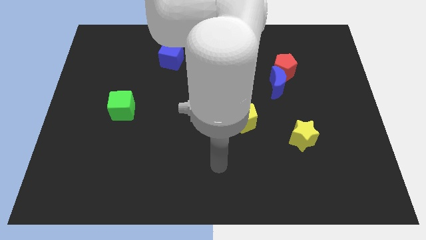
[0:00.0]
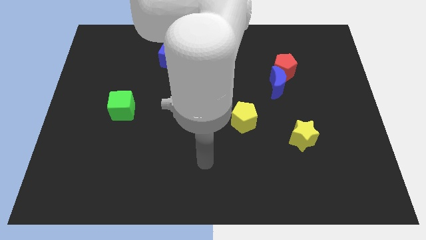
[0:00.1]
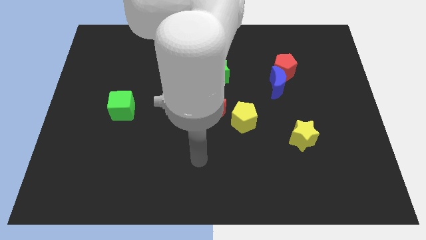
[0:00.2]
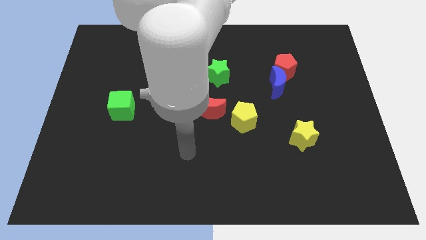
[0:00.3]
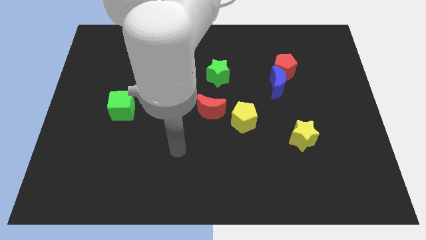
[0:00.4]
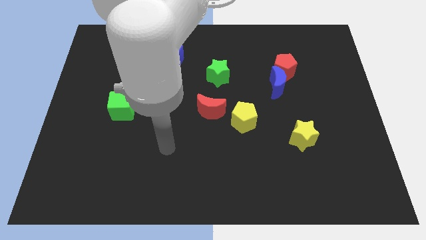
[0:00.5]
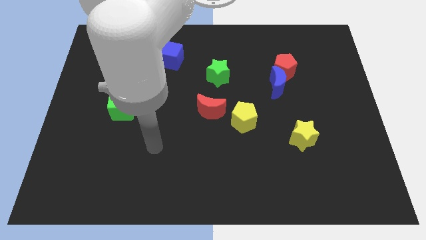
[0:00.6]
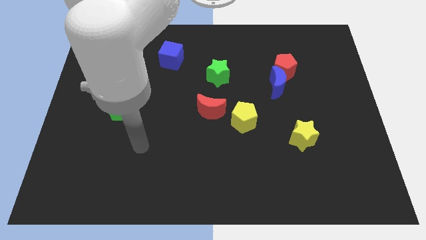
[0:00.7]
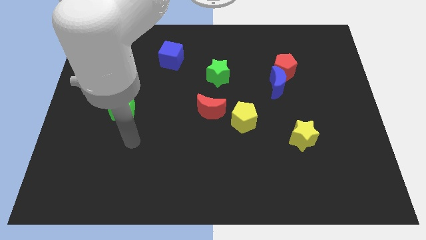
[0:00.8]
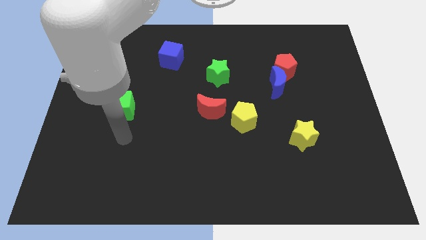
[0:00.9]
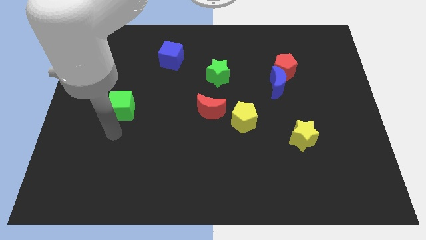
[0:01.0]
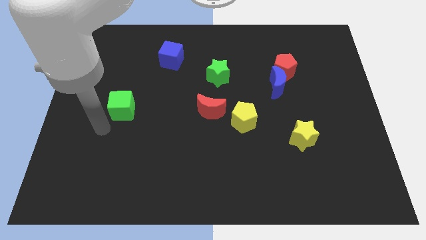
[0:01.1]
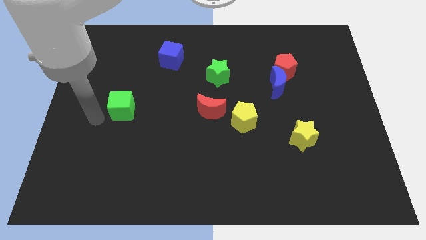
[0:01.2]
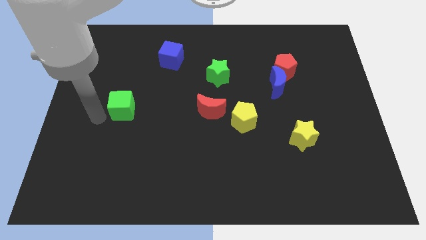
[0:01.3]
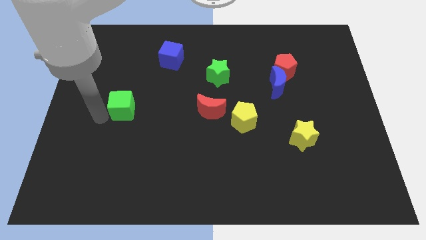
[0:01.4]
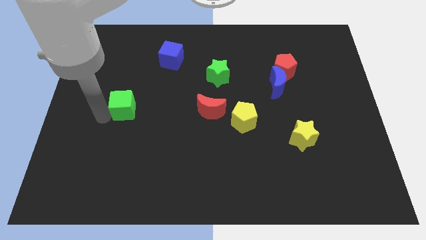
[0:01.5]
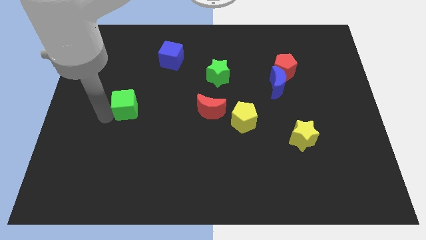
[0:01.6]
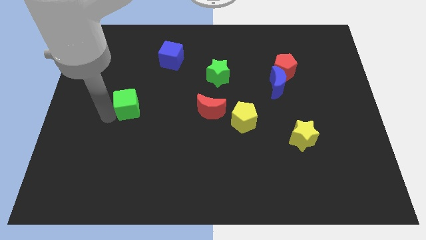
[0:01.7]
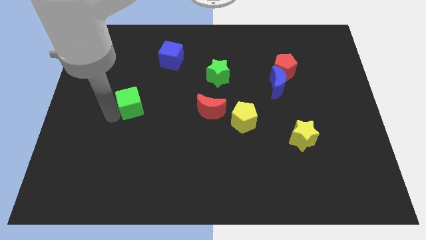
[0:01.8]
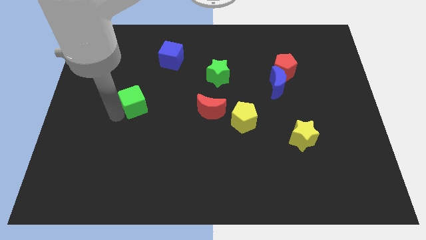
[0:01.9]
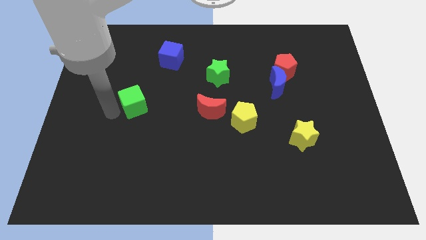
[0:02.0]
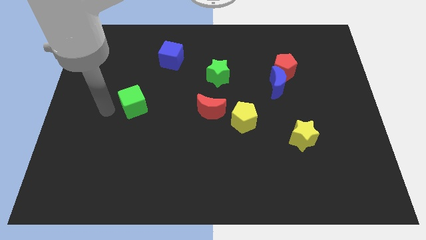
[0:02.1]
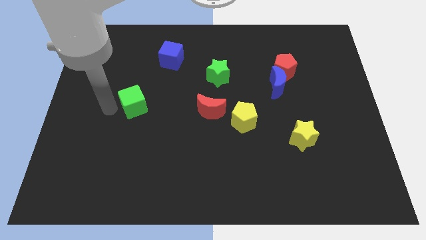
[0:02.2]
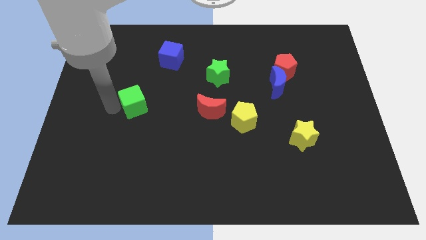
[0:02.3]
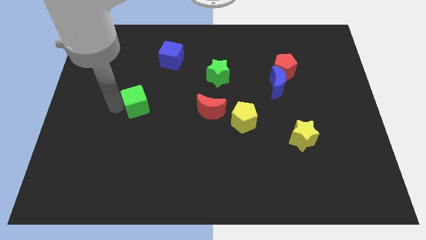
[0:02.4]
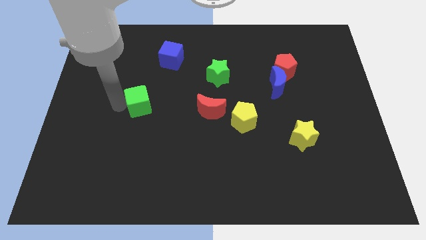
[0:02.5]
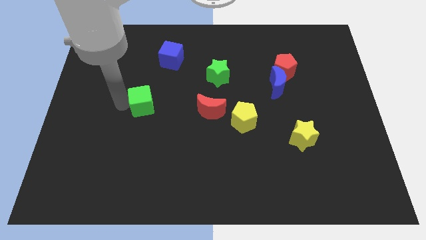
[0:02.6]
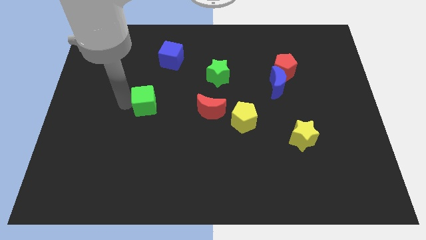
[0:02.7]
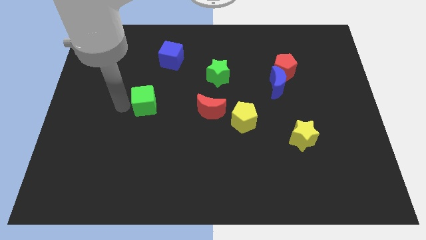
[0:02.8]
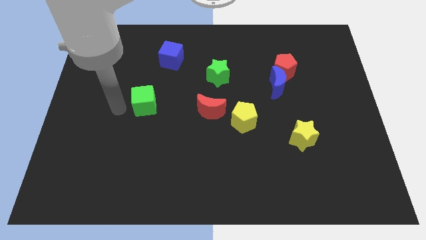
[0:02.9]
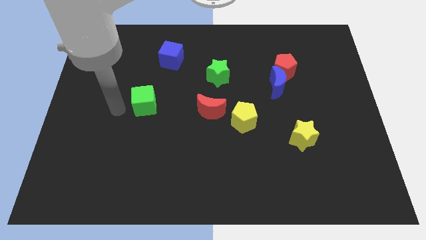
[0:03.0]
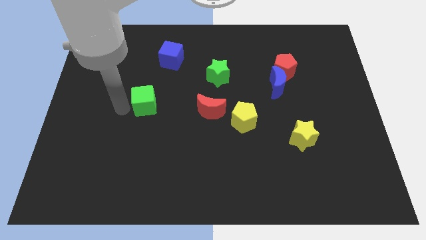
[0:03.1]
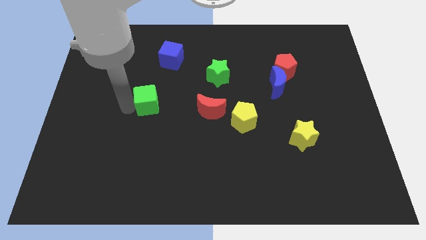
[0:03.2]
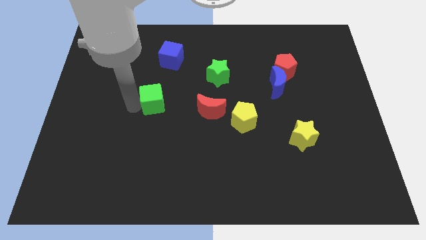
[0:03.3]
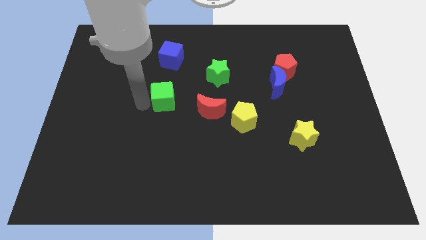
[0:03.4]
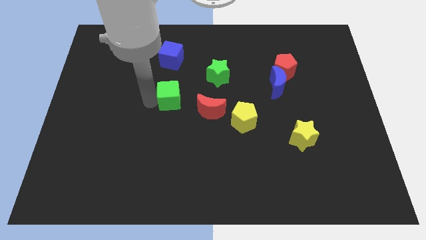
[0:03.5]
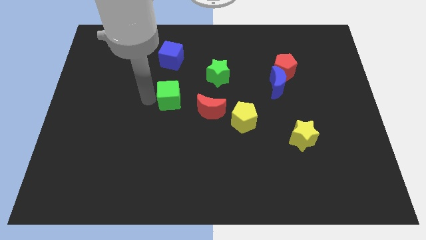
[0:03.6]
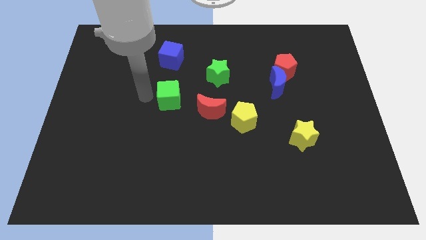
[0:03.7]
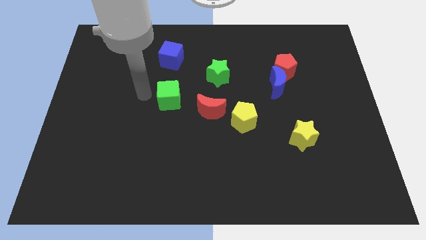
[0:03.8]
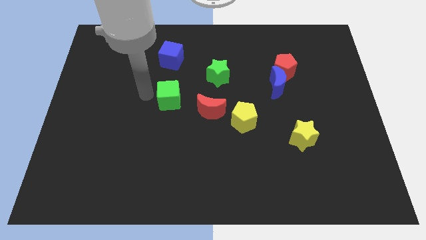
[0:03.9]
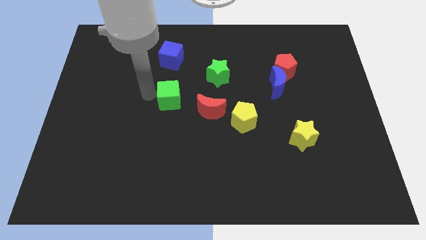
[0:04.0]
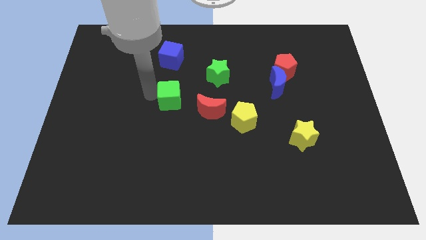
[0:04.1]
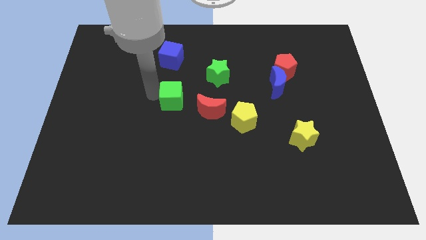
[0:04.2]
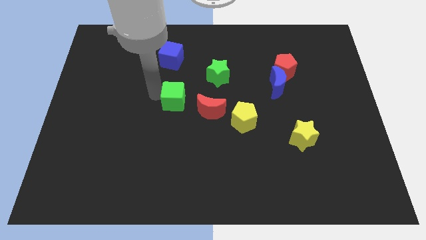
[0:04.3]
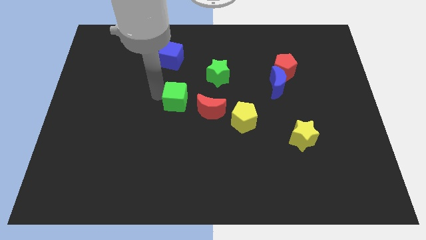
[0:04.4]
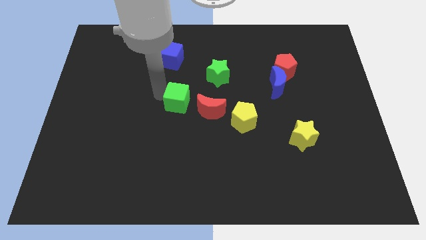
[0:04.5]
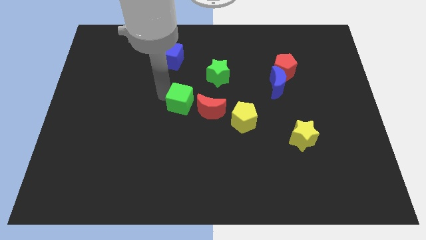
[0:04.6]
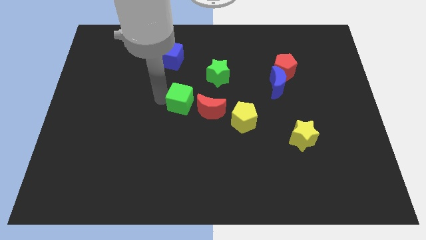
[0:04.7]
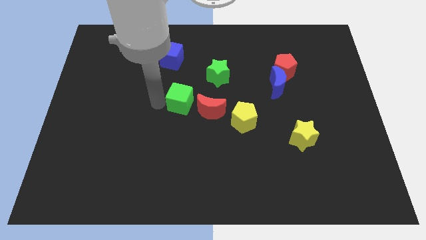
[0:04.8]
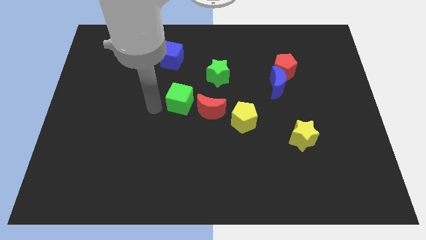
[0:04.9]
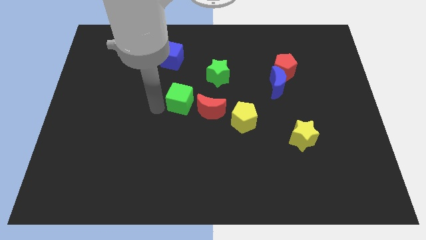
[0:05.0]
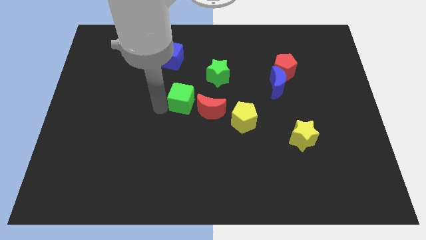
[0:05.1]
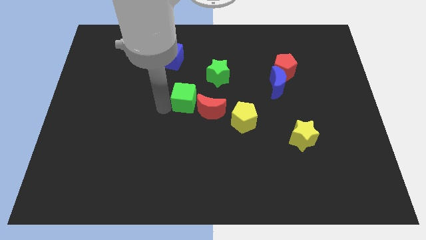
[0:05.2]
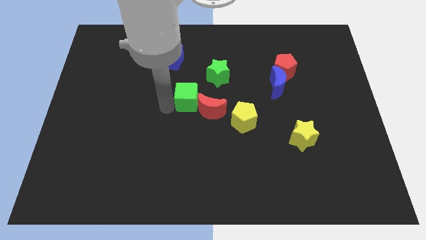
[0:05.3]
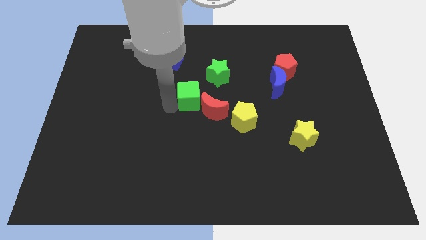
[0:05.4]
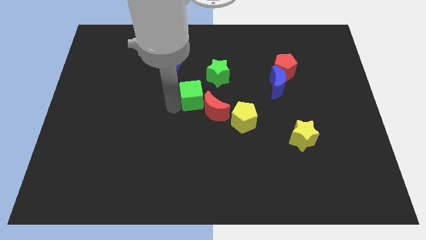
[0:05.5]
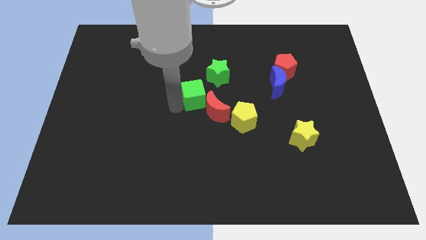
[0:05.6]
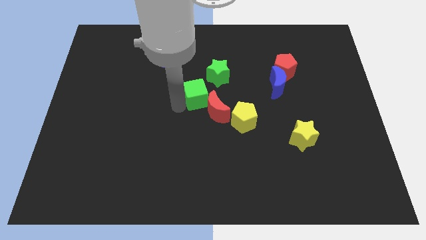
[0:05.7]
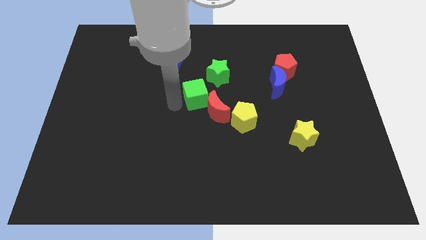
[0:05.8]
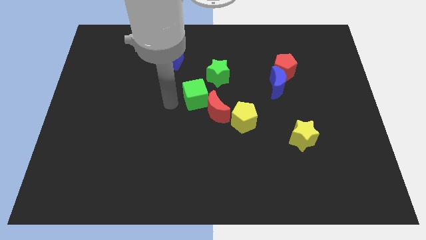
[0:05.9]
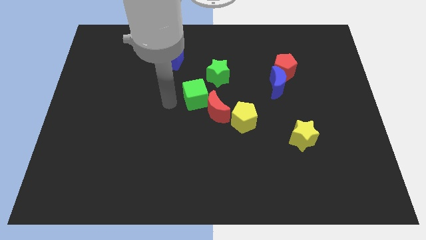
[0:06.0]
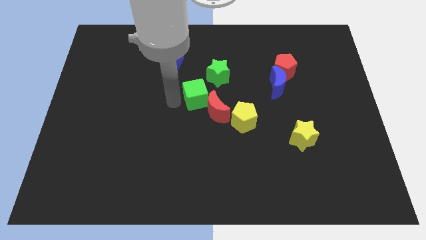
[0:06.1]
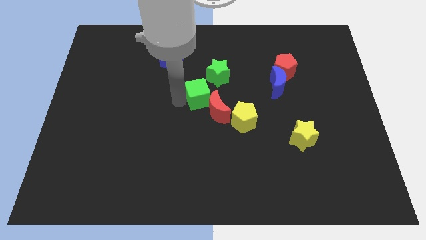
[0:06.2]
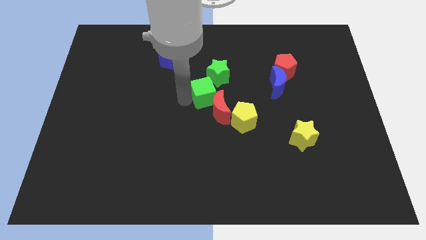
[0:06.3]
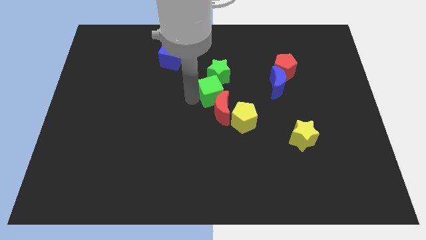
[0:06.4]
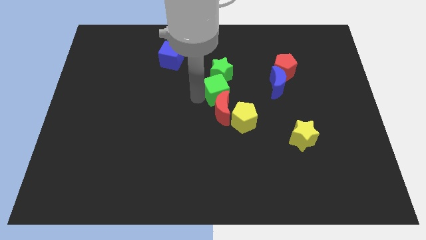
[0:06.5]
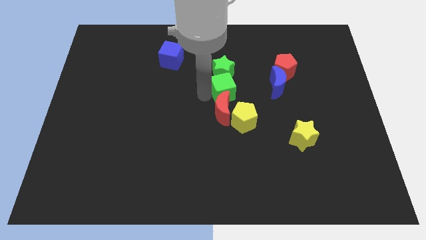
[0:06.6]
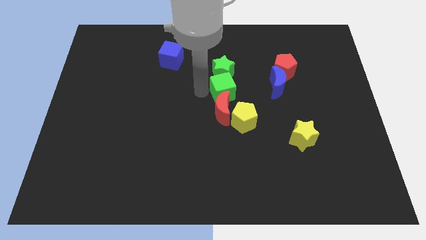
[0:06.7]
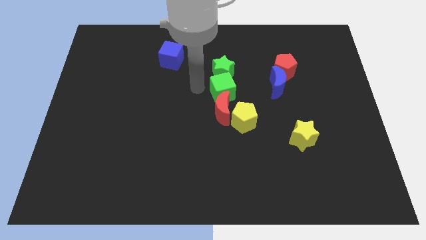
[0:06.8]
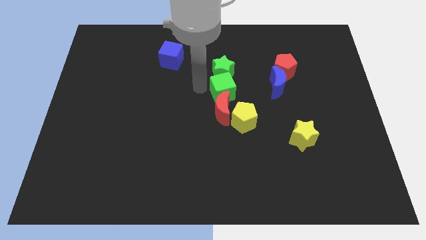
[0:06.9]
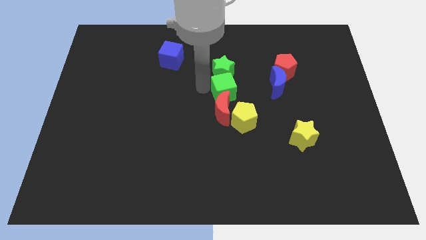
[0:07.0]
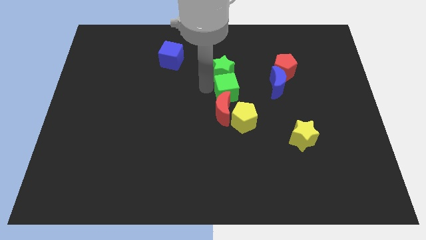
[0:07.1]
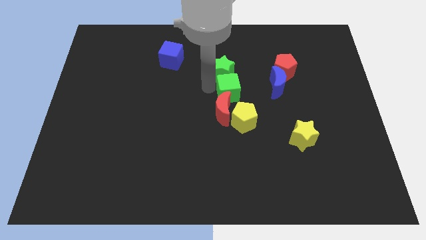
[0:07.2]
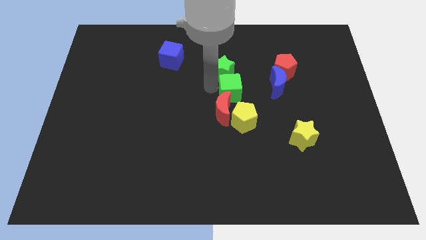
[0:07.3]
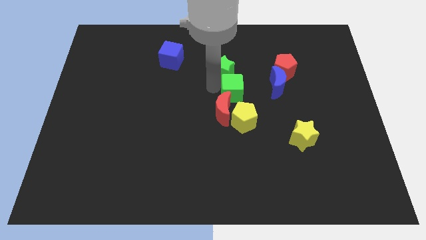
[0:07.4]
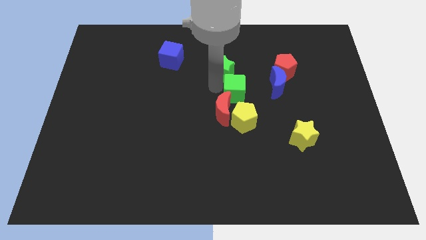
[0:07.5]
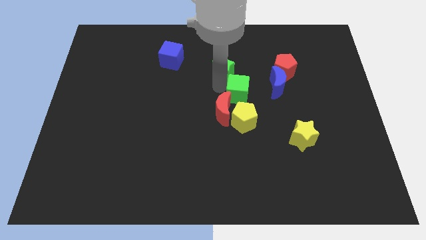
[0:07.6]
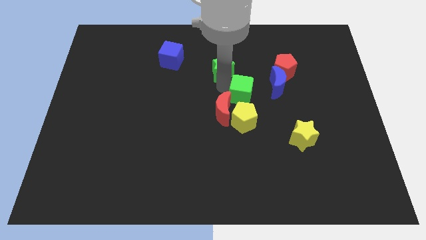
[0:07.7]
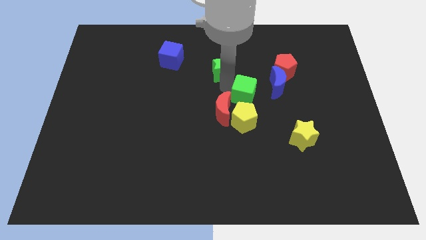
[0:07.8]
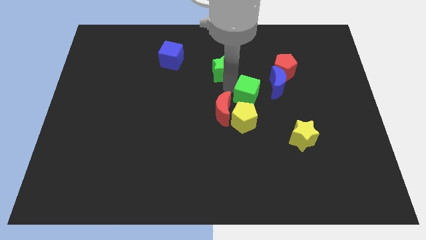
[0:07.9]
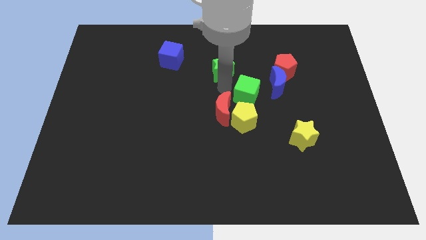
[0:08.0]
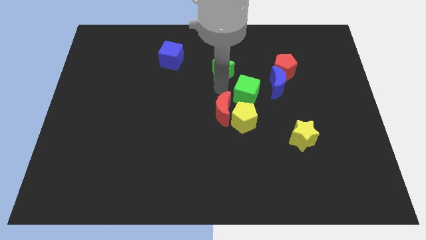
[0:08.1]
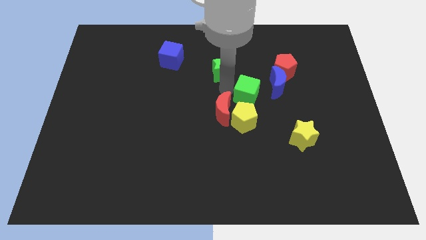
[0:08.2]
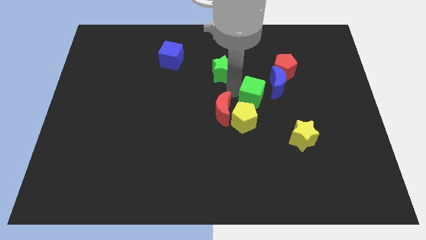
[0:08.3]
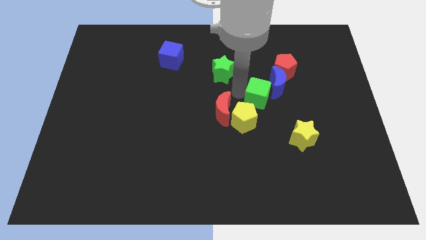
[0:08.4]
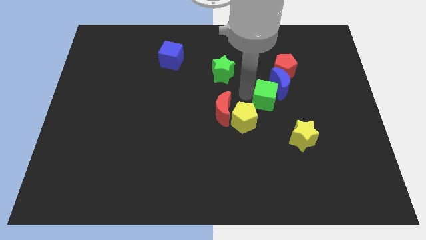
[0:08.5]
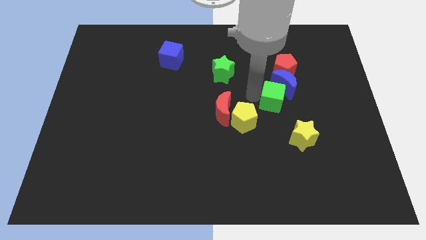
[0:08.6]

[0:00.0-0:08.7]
move the green cube below the red pentagon
